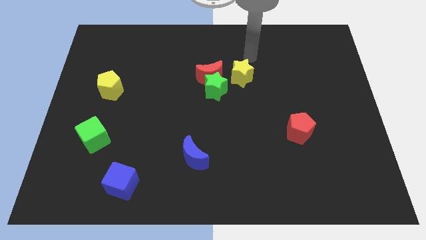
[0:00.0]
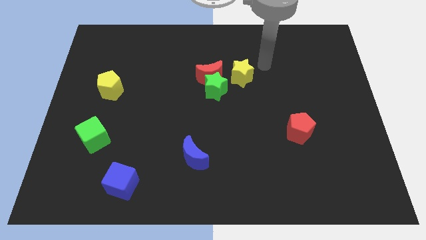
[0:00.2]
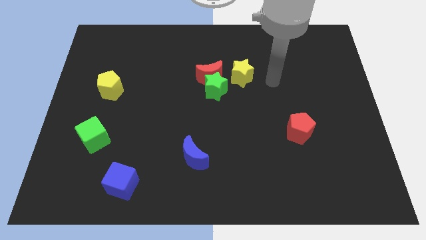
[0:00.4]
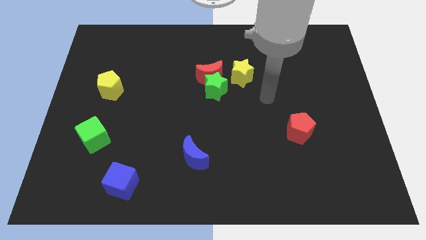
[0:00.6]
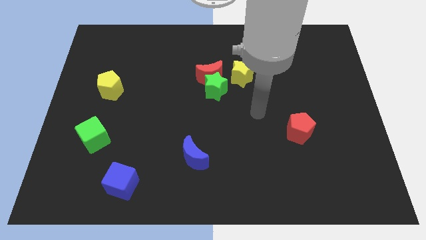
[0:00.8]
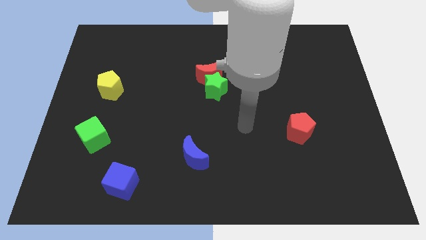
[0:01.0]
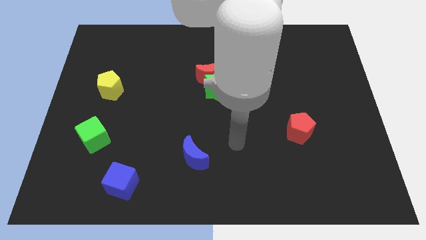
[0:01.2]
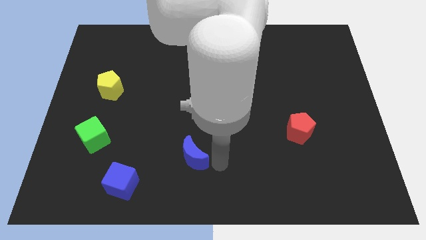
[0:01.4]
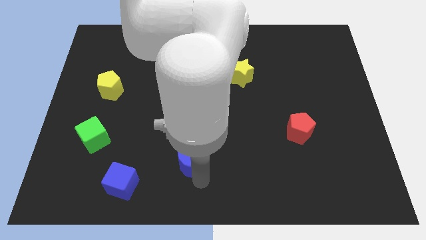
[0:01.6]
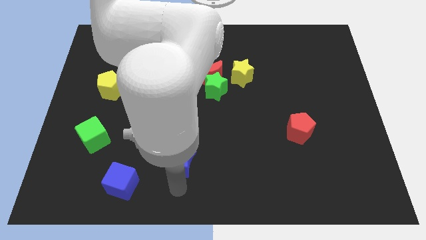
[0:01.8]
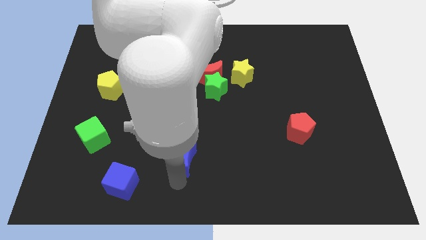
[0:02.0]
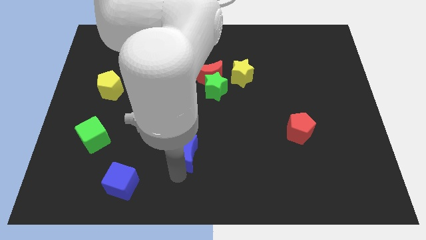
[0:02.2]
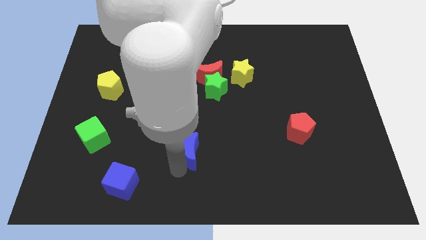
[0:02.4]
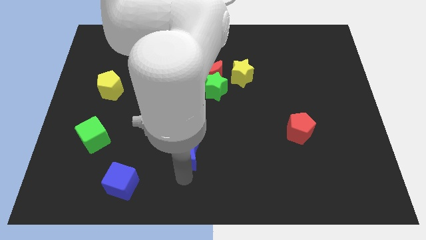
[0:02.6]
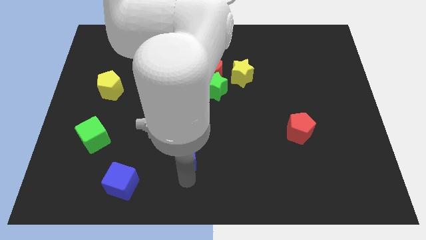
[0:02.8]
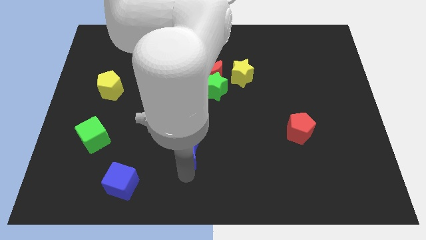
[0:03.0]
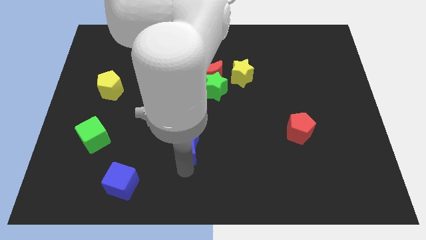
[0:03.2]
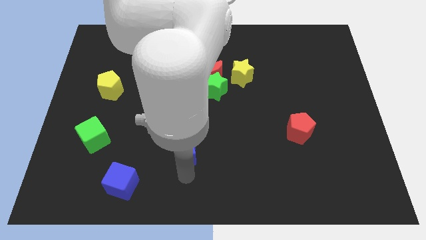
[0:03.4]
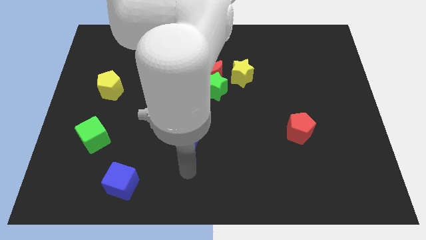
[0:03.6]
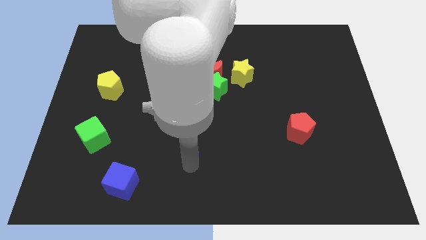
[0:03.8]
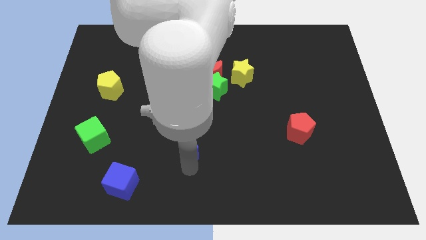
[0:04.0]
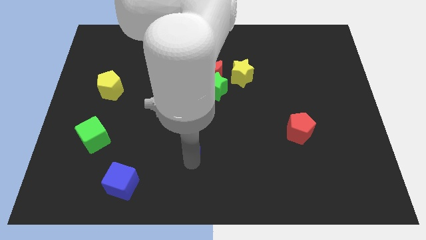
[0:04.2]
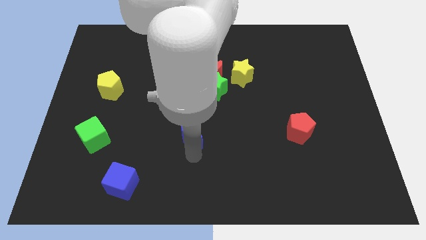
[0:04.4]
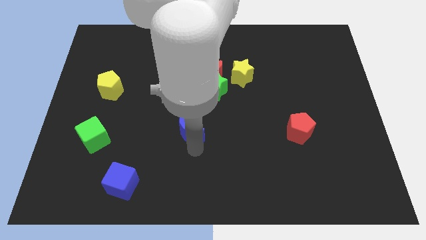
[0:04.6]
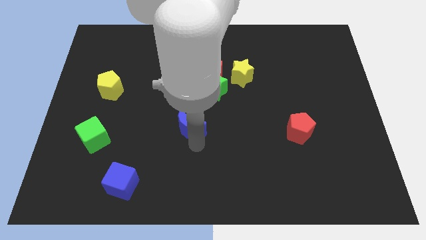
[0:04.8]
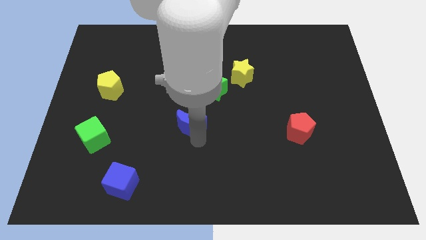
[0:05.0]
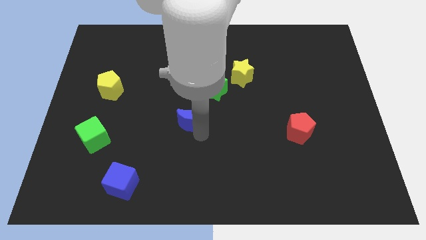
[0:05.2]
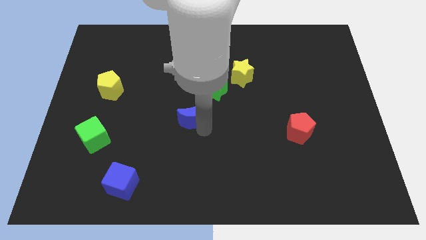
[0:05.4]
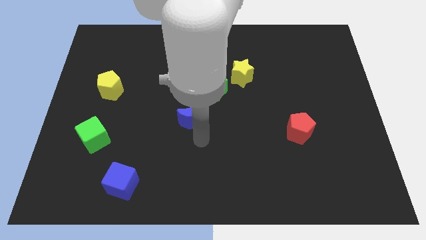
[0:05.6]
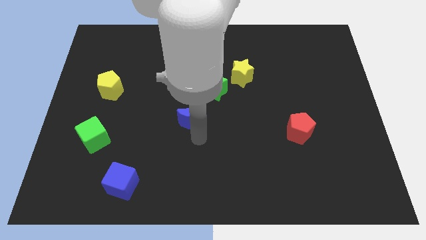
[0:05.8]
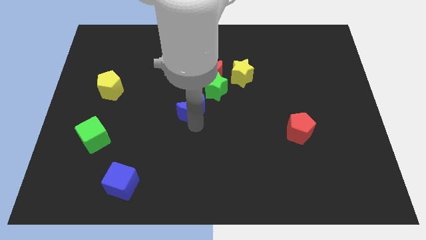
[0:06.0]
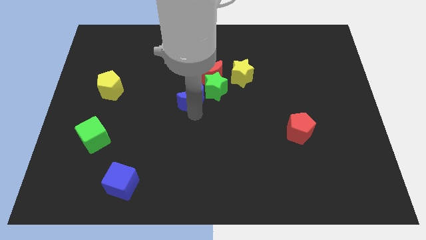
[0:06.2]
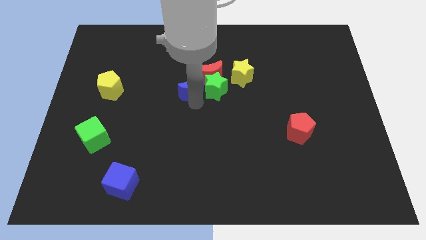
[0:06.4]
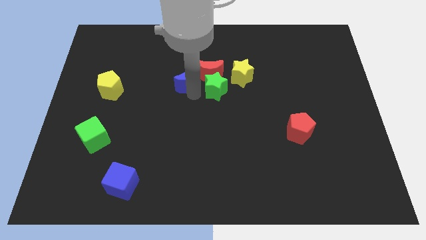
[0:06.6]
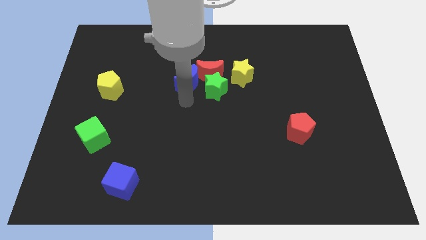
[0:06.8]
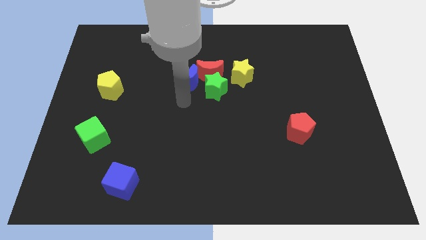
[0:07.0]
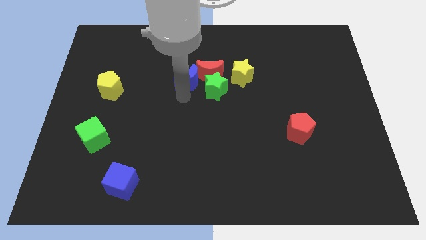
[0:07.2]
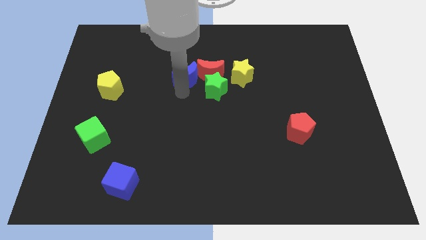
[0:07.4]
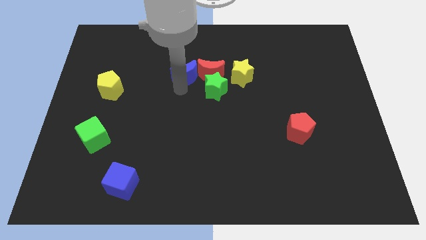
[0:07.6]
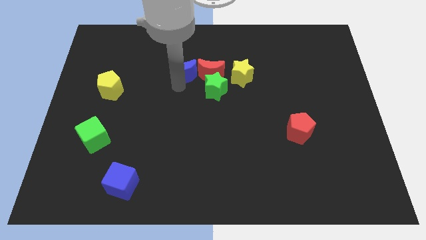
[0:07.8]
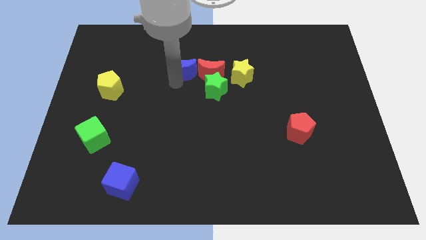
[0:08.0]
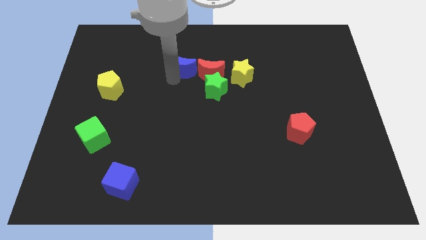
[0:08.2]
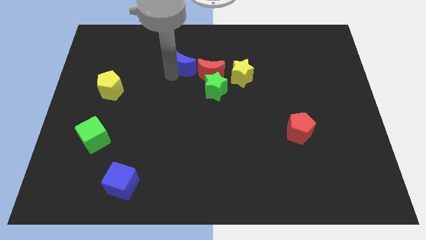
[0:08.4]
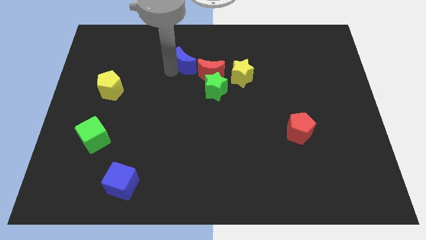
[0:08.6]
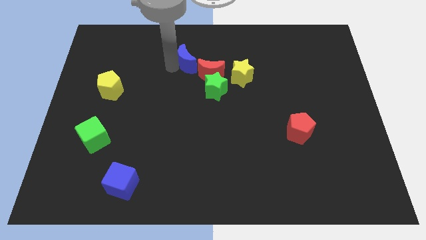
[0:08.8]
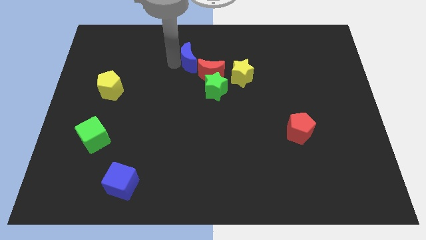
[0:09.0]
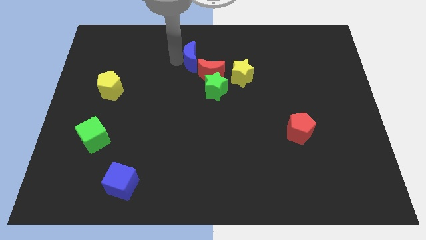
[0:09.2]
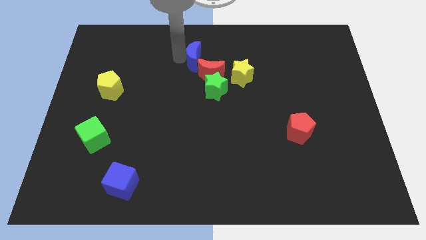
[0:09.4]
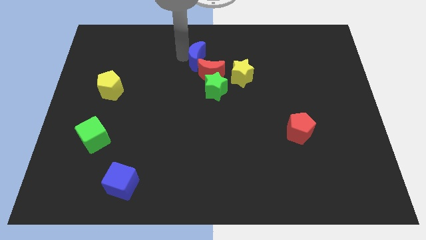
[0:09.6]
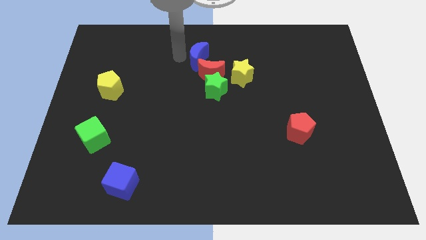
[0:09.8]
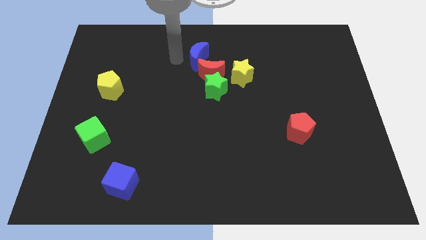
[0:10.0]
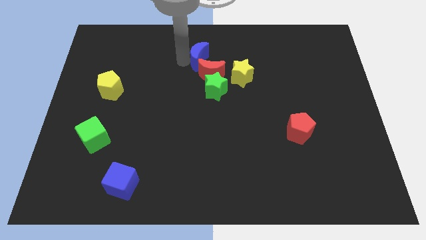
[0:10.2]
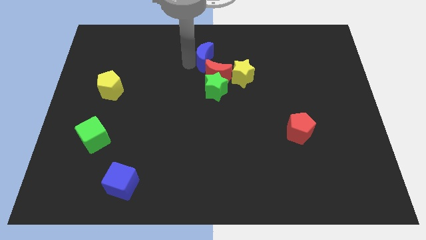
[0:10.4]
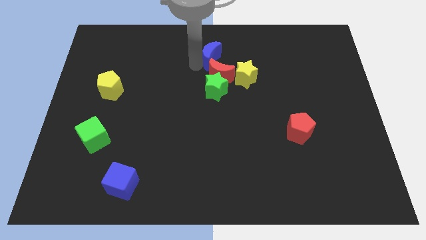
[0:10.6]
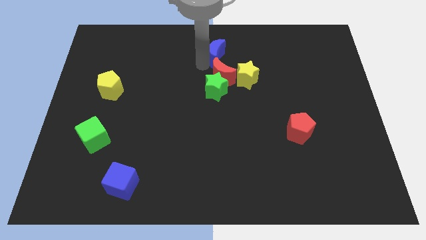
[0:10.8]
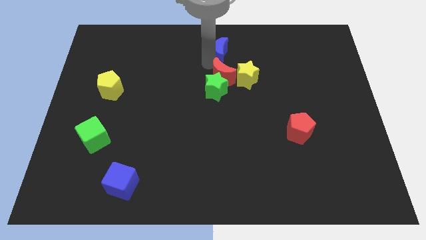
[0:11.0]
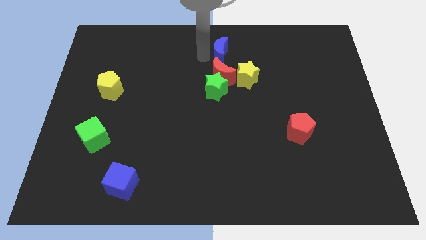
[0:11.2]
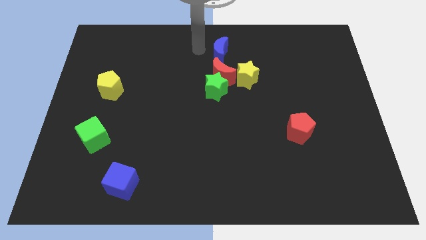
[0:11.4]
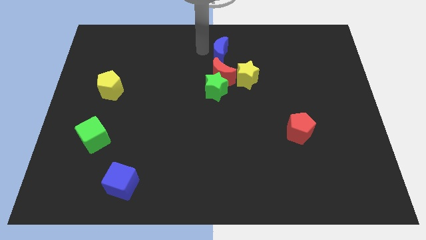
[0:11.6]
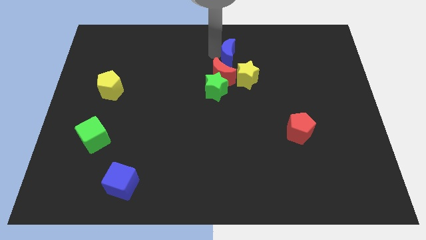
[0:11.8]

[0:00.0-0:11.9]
push the blue moon to the top right side of the red moon

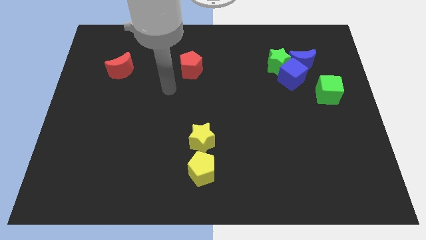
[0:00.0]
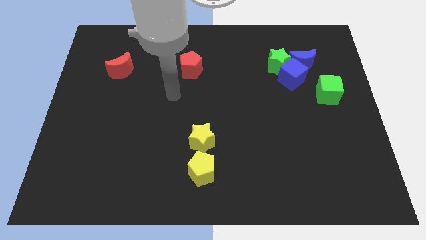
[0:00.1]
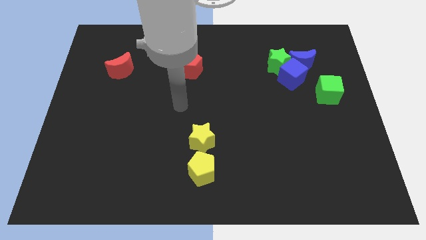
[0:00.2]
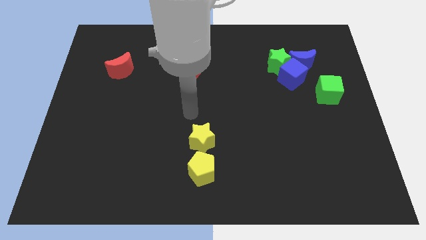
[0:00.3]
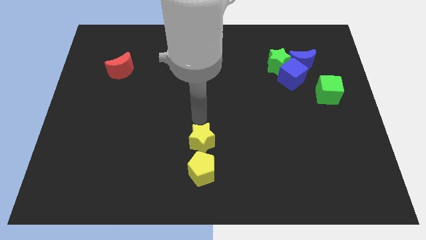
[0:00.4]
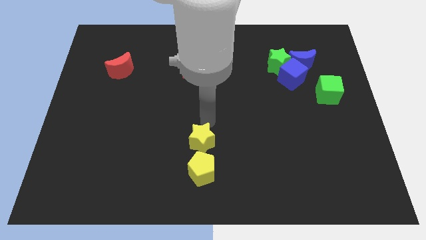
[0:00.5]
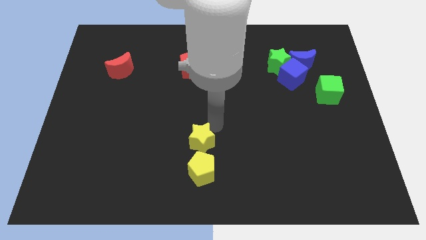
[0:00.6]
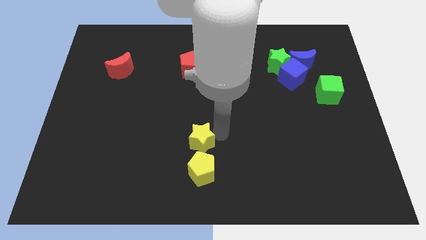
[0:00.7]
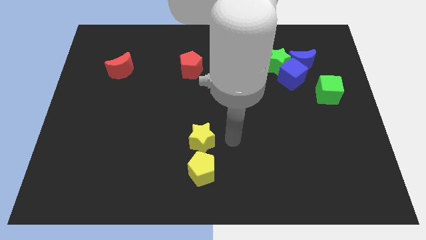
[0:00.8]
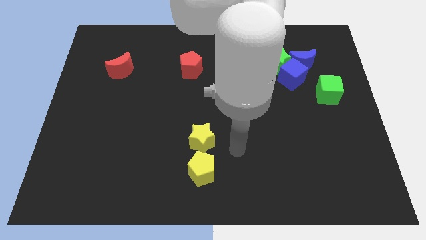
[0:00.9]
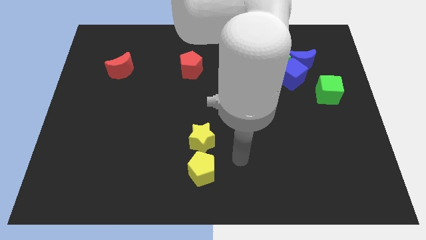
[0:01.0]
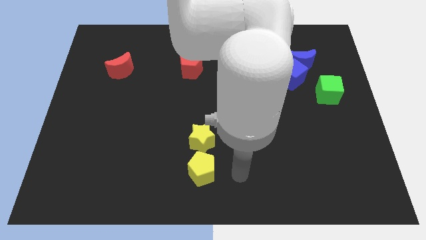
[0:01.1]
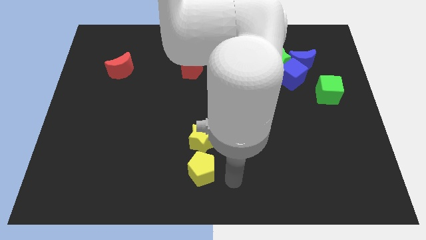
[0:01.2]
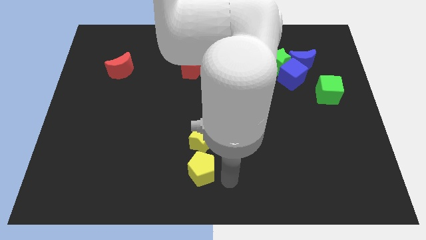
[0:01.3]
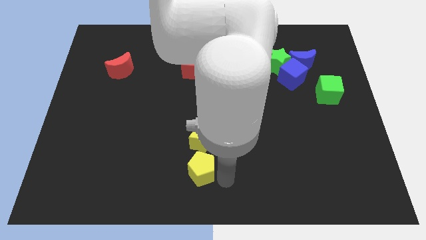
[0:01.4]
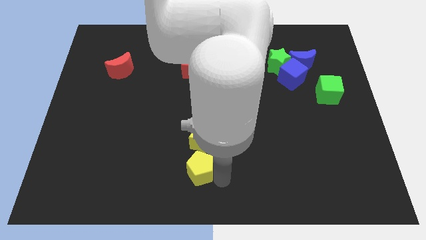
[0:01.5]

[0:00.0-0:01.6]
push the yellow pentagon to the bottom left of the yellow star

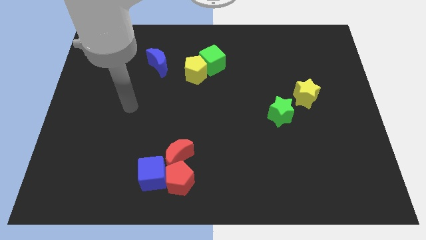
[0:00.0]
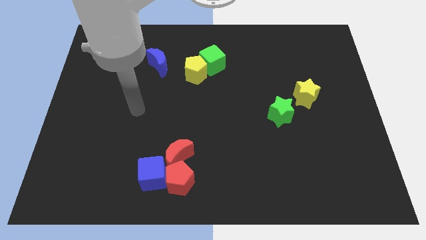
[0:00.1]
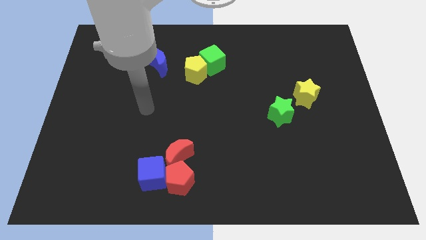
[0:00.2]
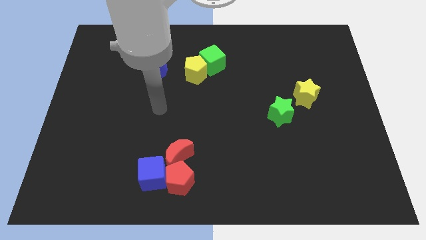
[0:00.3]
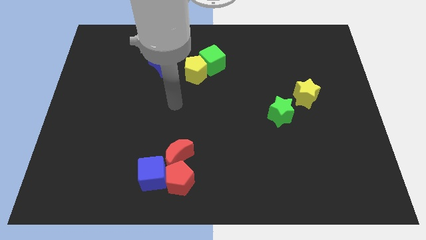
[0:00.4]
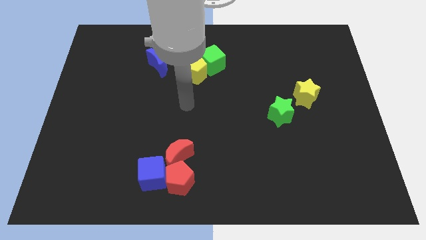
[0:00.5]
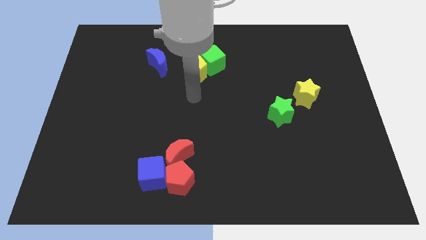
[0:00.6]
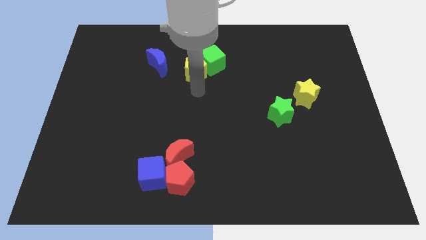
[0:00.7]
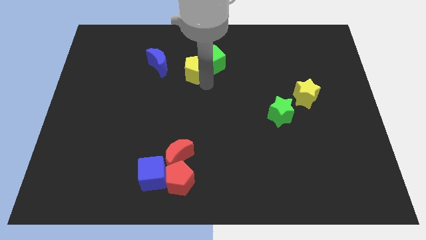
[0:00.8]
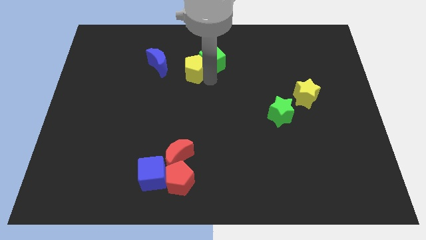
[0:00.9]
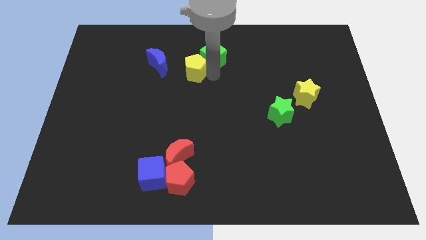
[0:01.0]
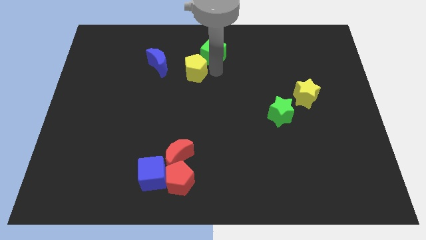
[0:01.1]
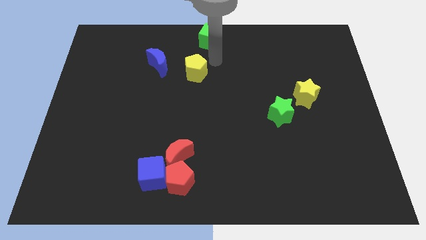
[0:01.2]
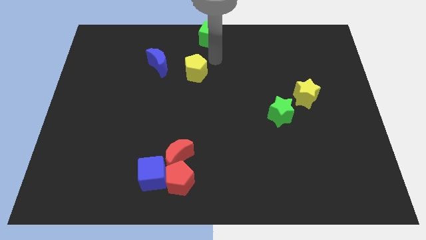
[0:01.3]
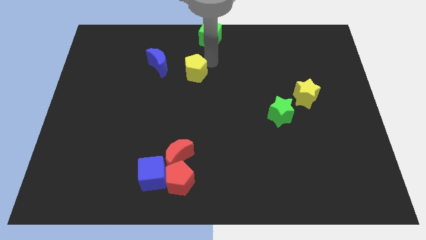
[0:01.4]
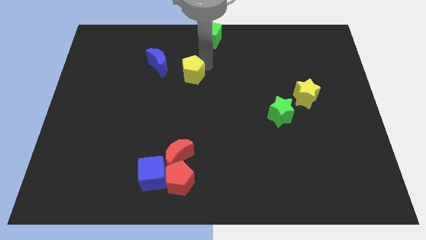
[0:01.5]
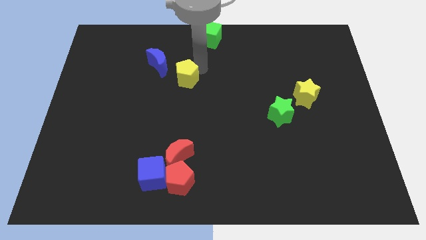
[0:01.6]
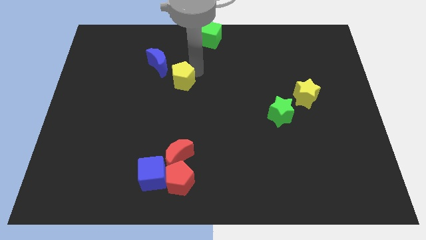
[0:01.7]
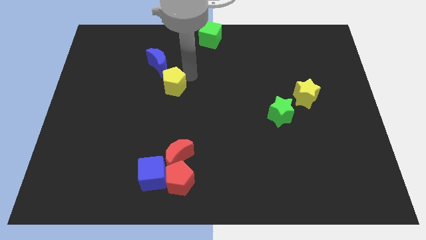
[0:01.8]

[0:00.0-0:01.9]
move the yellow pentagon to the bottom of the blue moon
